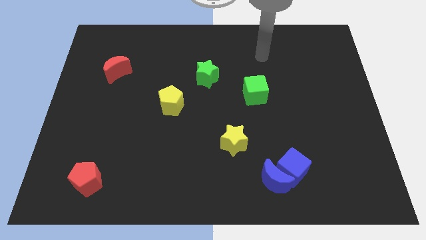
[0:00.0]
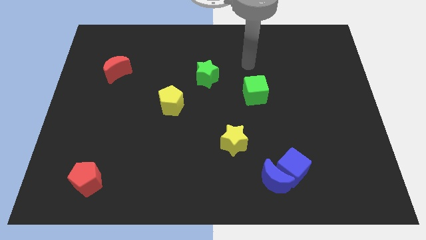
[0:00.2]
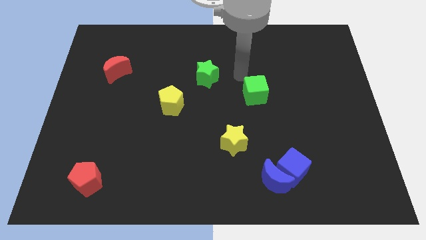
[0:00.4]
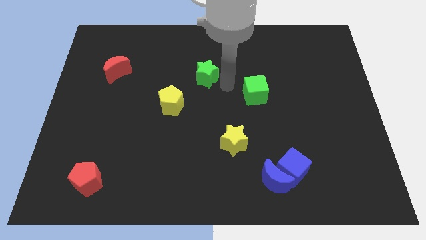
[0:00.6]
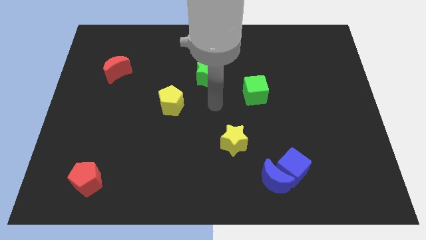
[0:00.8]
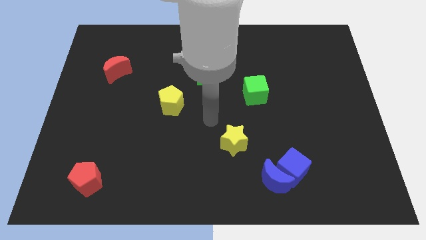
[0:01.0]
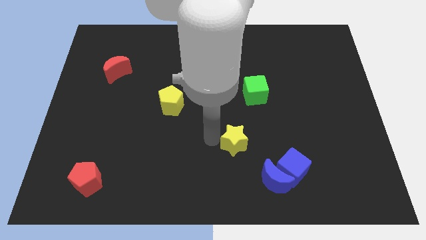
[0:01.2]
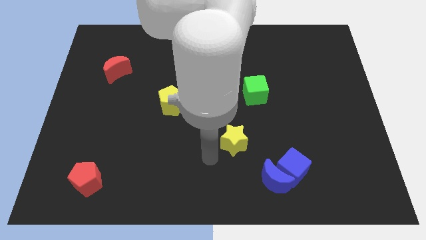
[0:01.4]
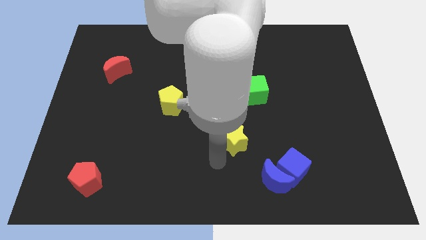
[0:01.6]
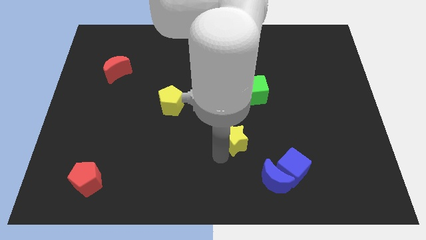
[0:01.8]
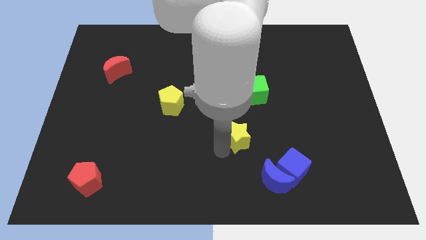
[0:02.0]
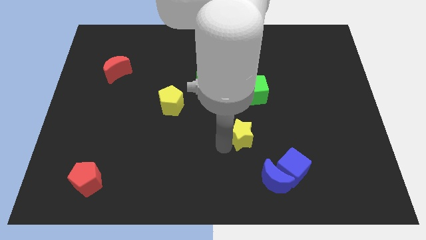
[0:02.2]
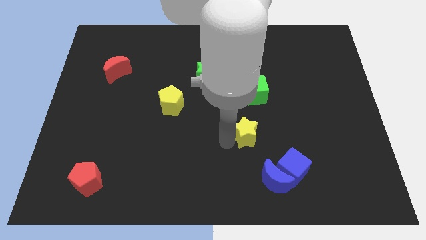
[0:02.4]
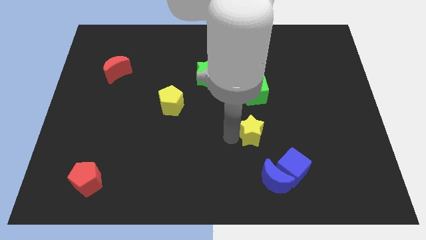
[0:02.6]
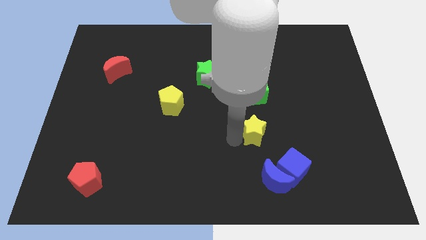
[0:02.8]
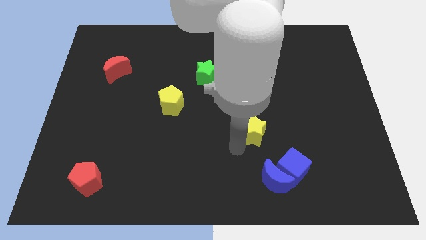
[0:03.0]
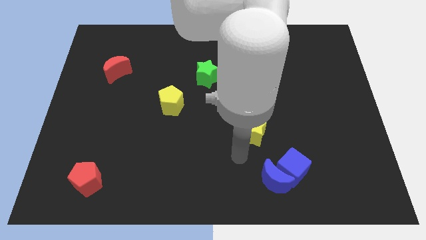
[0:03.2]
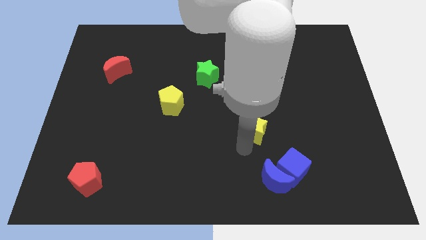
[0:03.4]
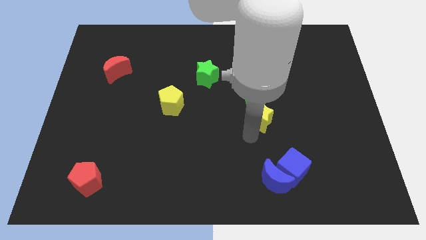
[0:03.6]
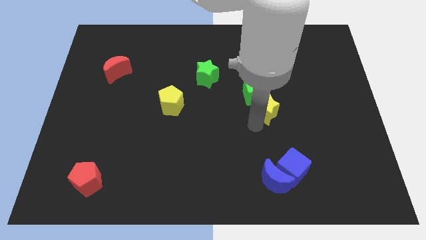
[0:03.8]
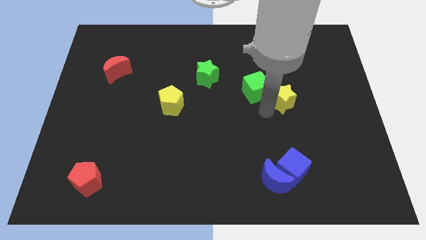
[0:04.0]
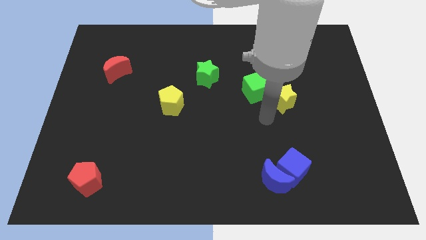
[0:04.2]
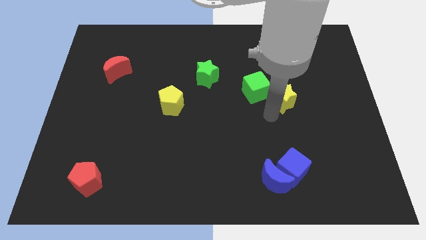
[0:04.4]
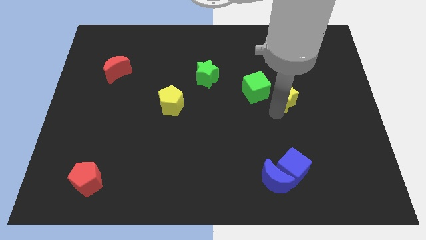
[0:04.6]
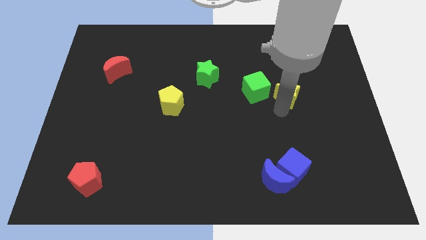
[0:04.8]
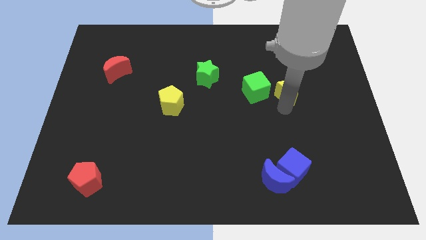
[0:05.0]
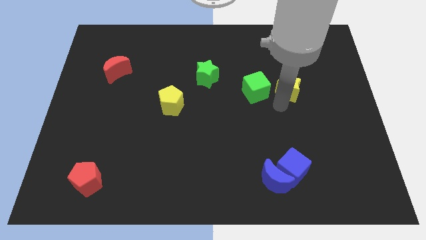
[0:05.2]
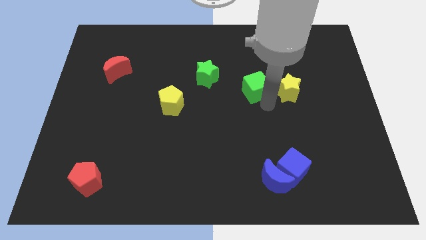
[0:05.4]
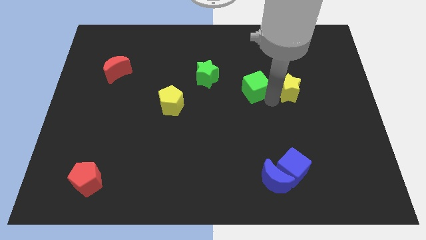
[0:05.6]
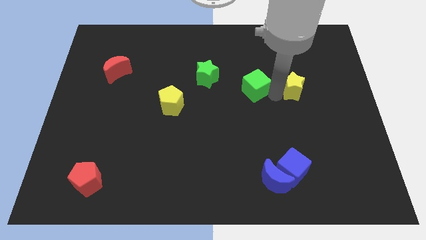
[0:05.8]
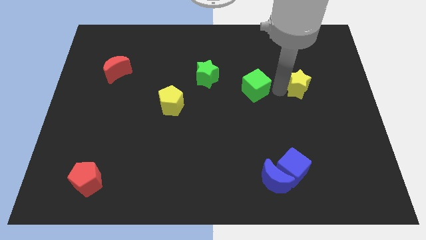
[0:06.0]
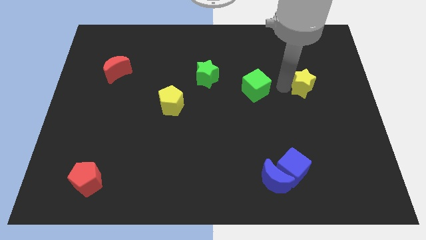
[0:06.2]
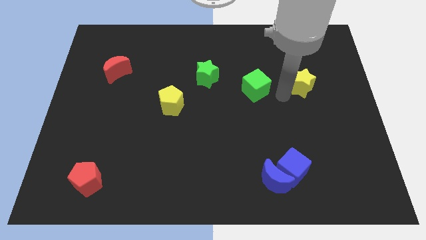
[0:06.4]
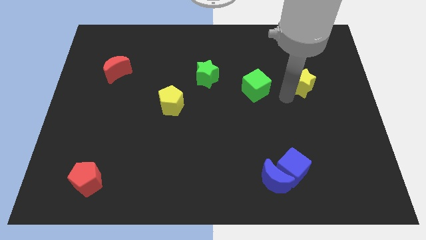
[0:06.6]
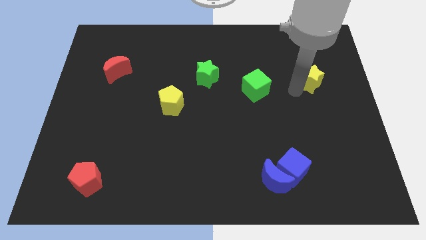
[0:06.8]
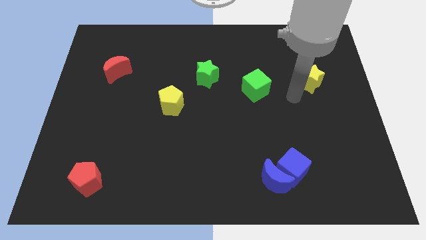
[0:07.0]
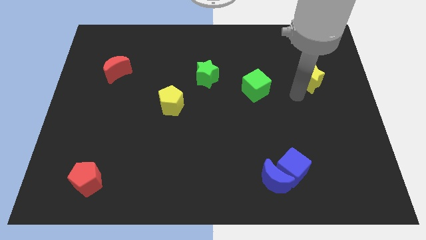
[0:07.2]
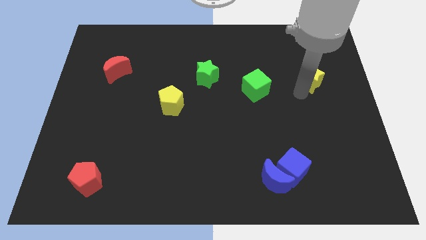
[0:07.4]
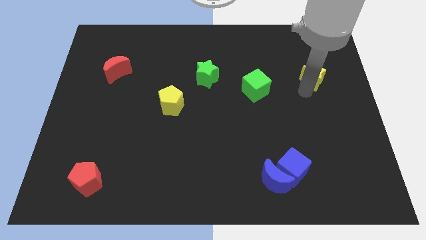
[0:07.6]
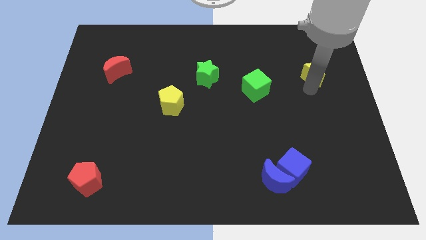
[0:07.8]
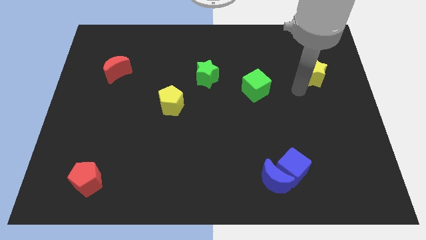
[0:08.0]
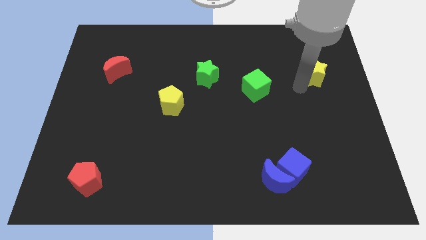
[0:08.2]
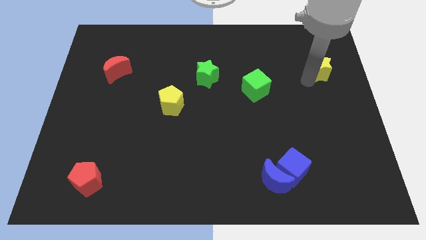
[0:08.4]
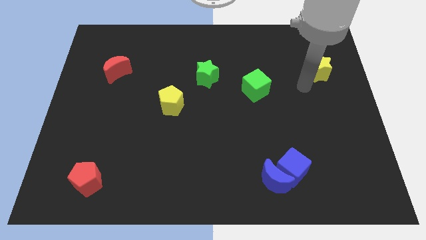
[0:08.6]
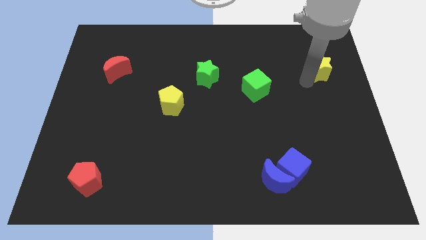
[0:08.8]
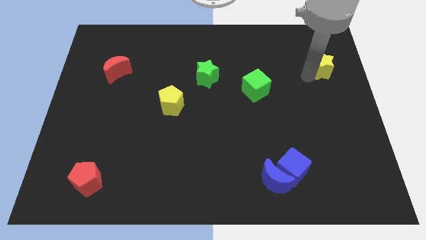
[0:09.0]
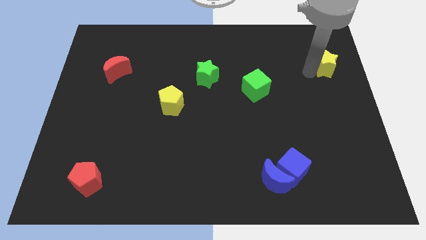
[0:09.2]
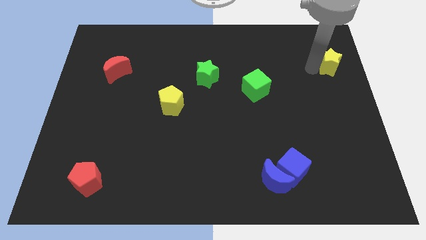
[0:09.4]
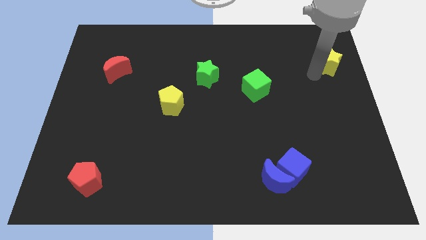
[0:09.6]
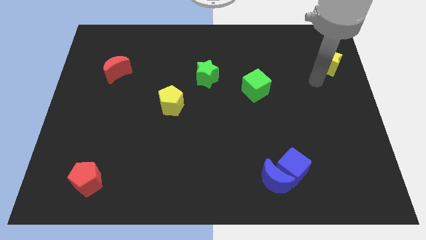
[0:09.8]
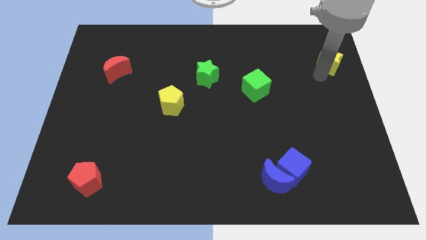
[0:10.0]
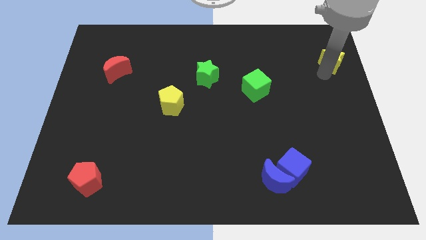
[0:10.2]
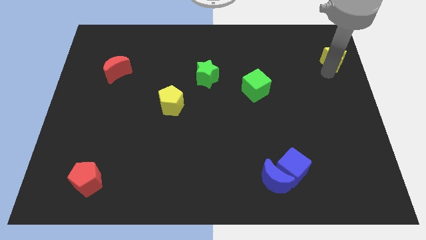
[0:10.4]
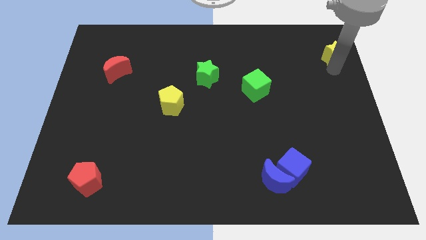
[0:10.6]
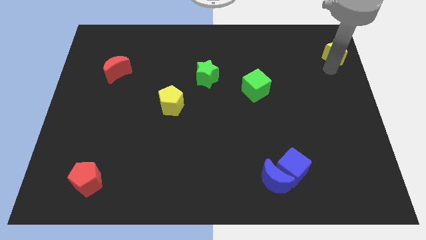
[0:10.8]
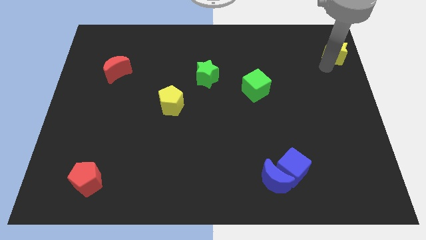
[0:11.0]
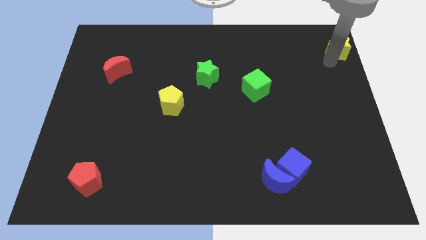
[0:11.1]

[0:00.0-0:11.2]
slide the yellow star to the top right corner
